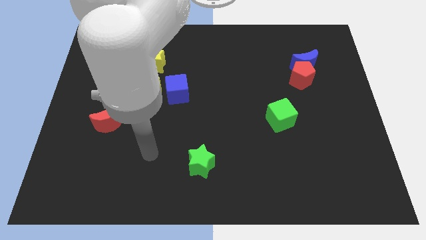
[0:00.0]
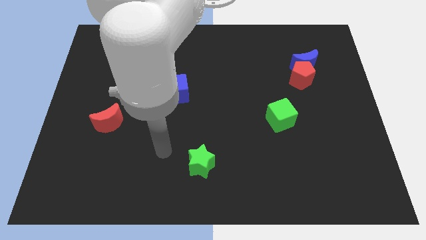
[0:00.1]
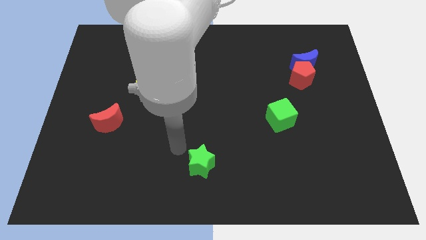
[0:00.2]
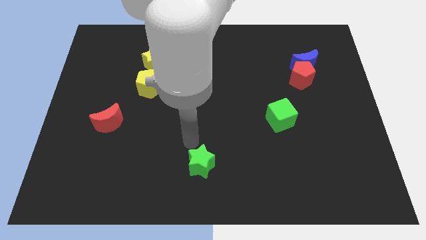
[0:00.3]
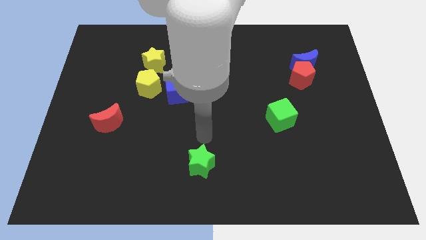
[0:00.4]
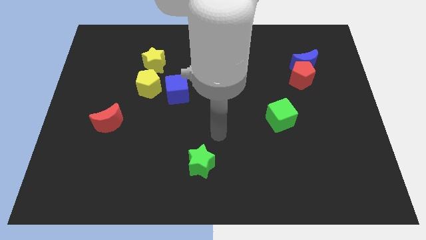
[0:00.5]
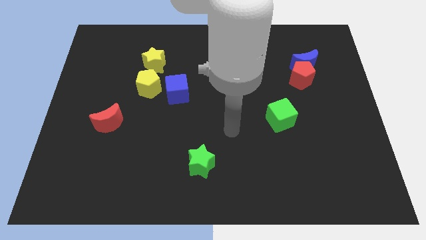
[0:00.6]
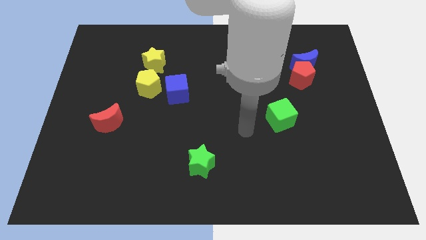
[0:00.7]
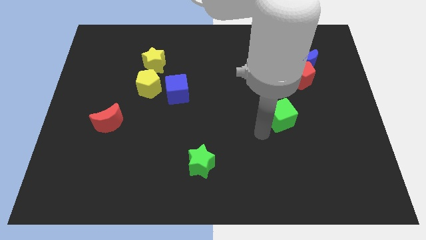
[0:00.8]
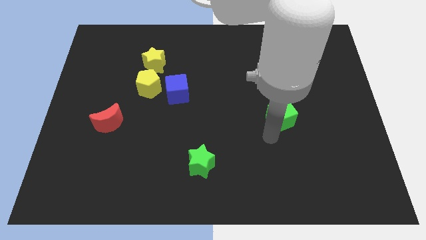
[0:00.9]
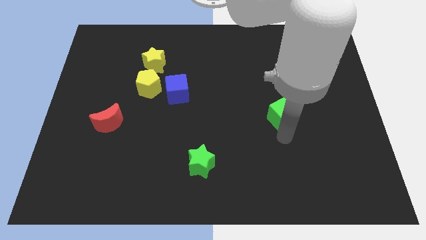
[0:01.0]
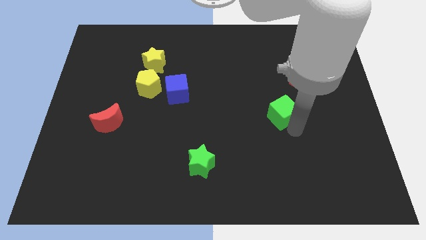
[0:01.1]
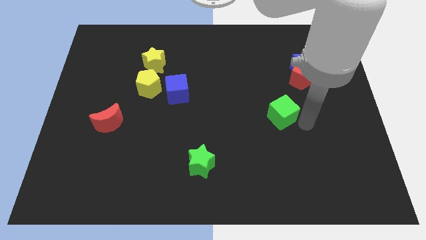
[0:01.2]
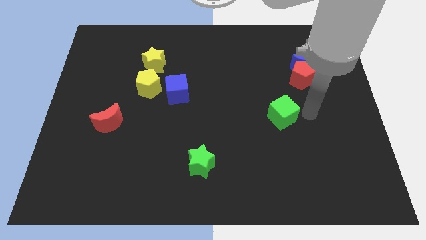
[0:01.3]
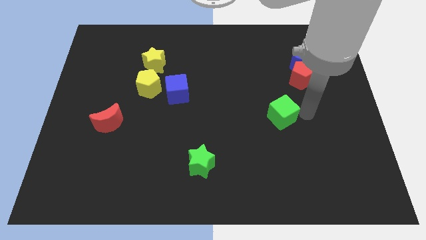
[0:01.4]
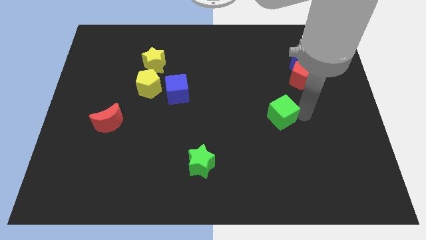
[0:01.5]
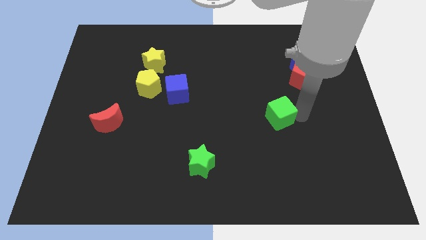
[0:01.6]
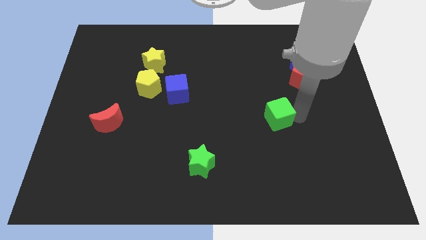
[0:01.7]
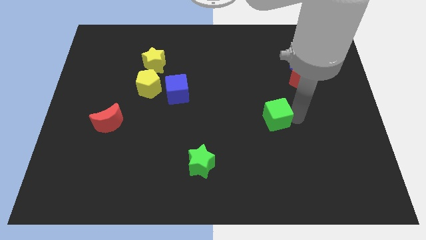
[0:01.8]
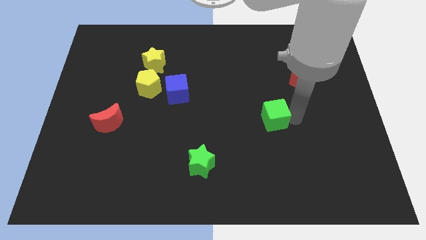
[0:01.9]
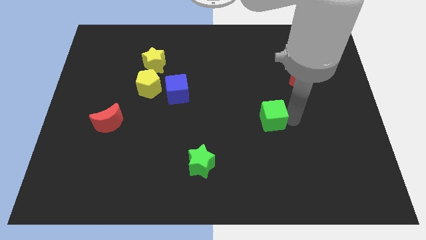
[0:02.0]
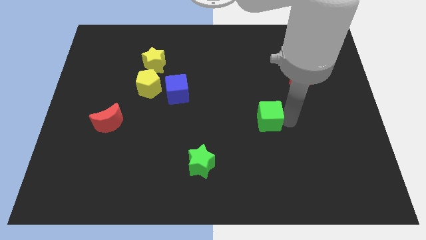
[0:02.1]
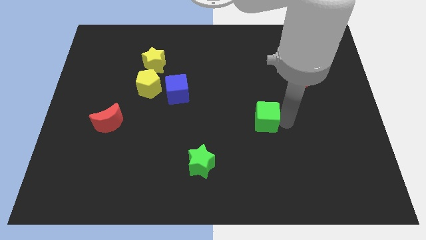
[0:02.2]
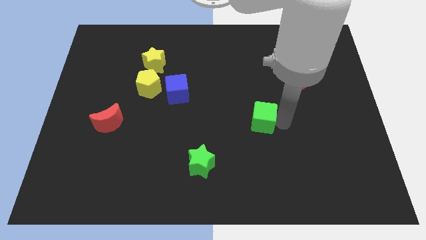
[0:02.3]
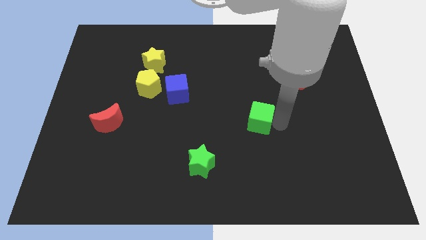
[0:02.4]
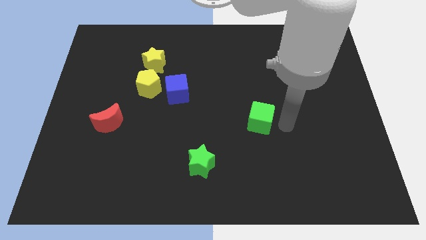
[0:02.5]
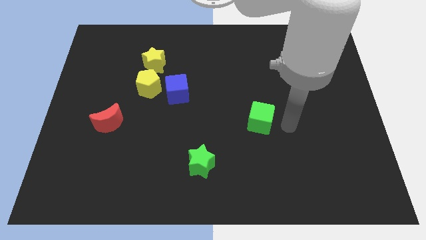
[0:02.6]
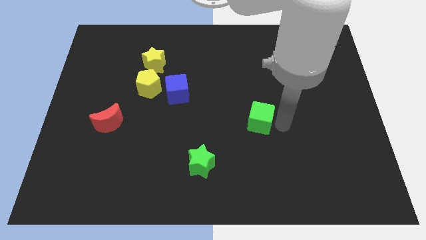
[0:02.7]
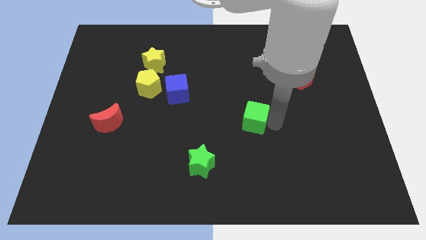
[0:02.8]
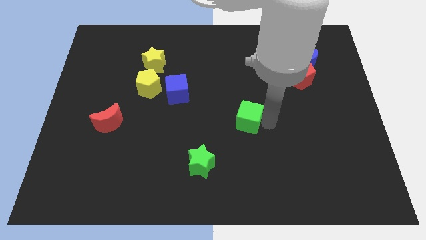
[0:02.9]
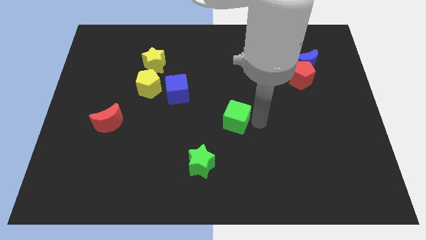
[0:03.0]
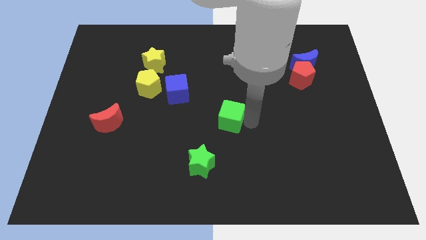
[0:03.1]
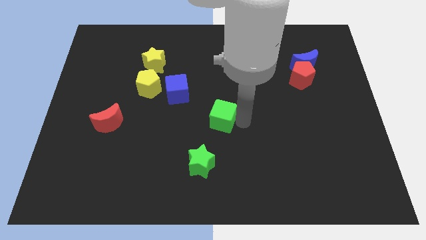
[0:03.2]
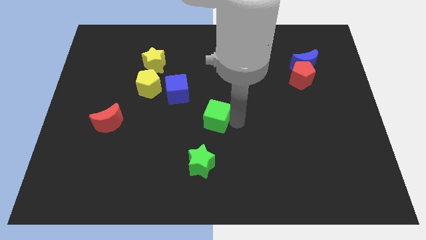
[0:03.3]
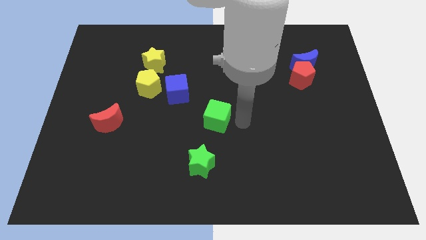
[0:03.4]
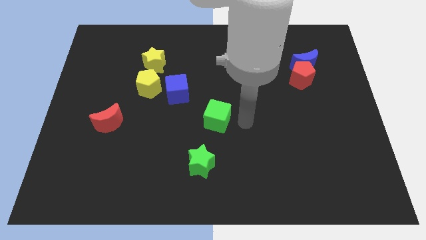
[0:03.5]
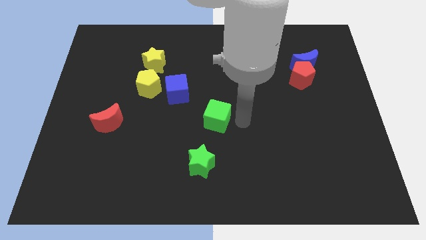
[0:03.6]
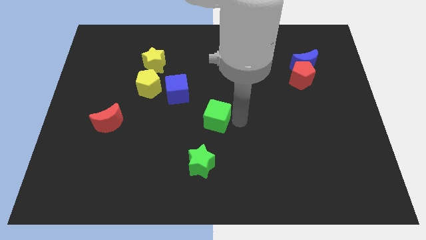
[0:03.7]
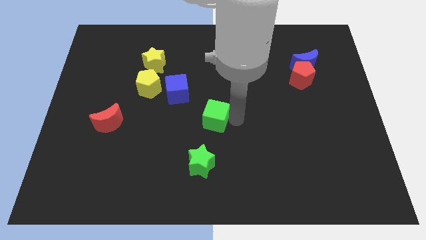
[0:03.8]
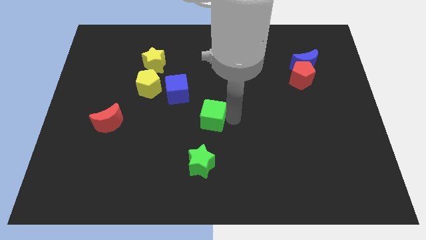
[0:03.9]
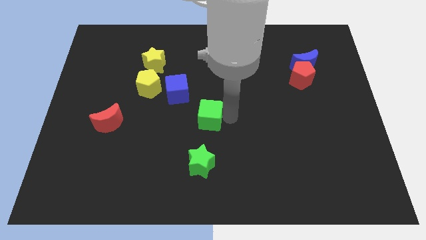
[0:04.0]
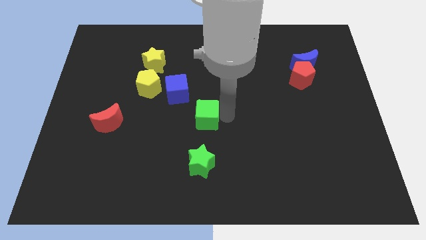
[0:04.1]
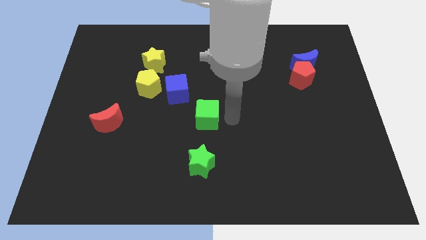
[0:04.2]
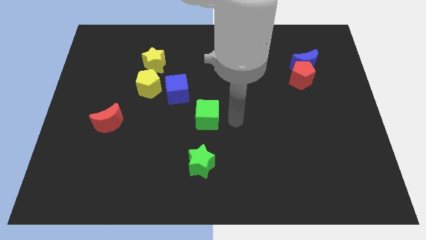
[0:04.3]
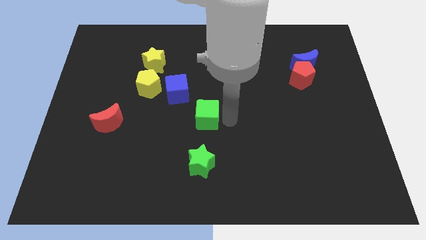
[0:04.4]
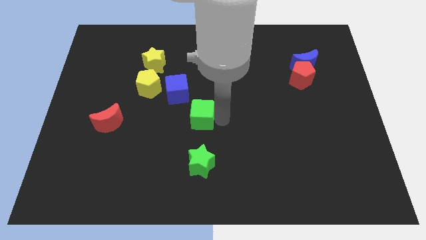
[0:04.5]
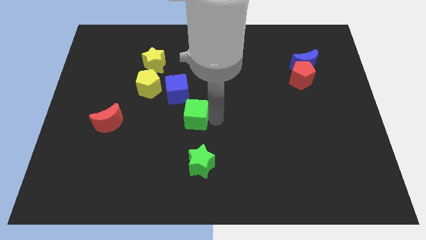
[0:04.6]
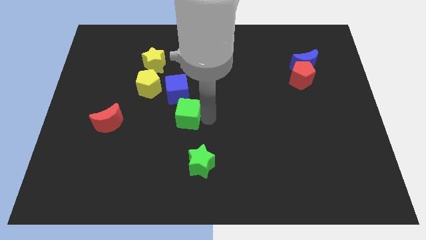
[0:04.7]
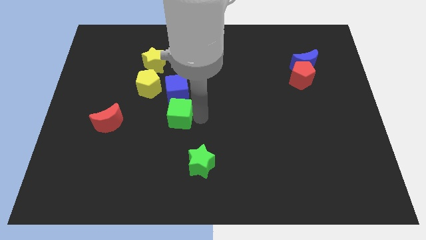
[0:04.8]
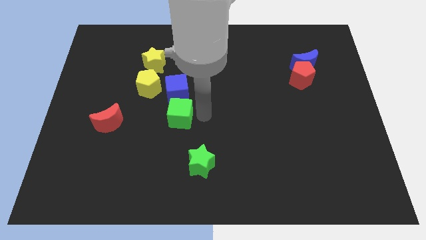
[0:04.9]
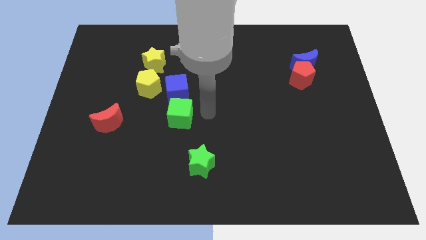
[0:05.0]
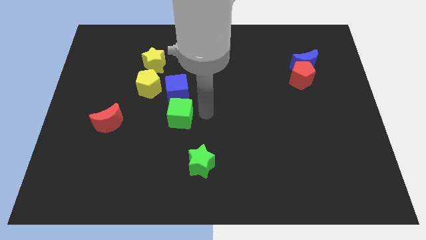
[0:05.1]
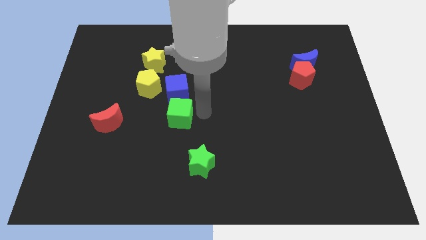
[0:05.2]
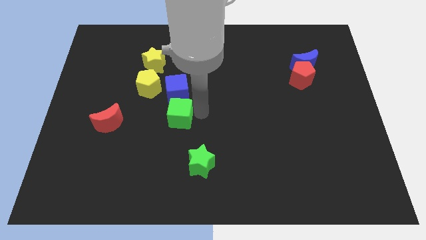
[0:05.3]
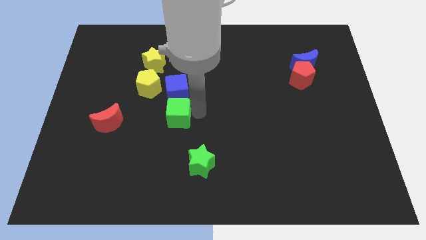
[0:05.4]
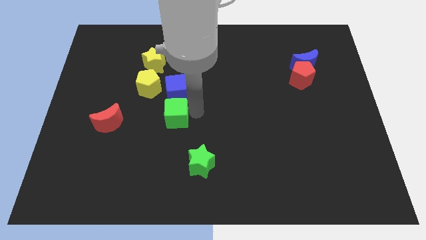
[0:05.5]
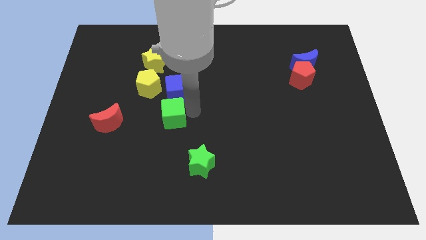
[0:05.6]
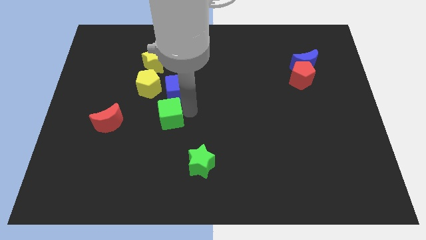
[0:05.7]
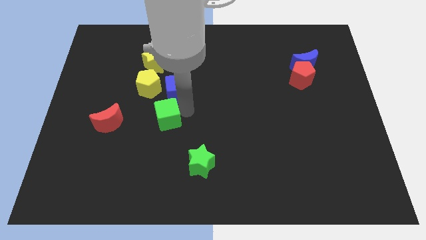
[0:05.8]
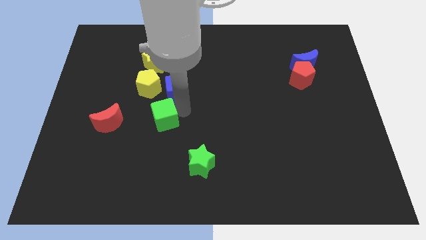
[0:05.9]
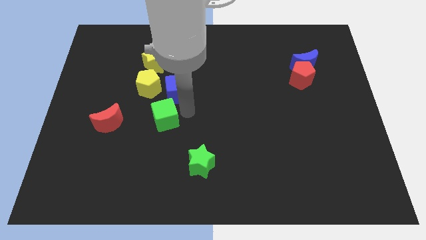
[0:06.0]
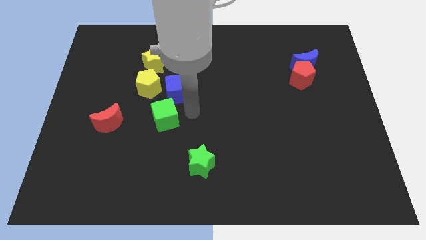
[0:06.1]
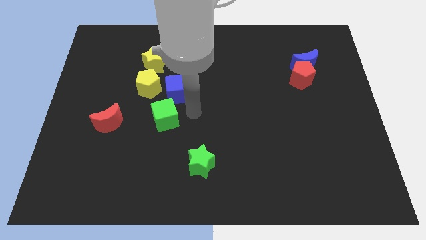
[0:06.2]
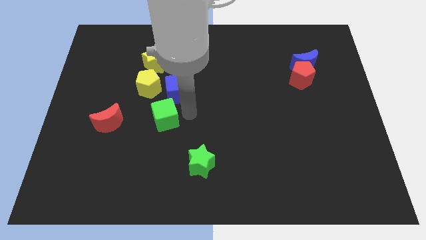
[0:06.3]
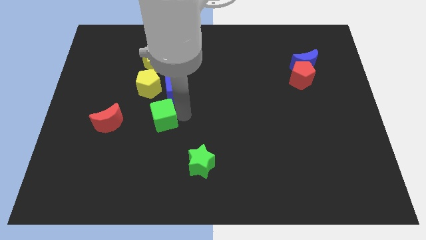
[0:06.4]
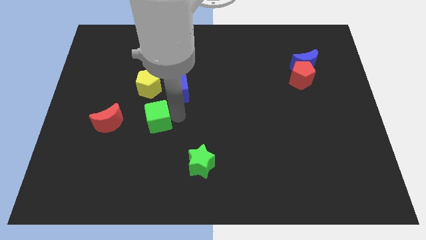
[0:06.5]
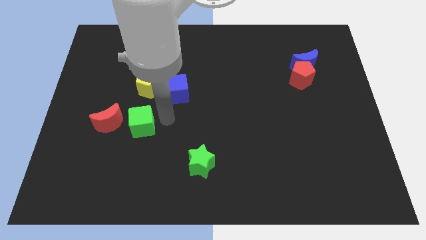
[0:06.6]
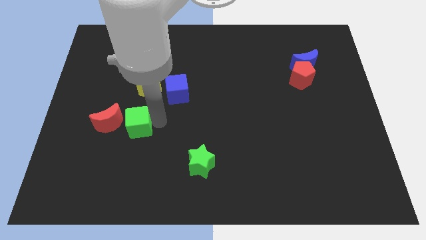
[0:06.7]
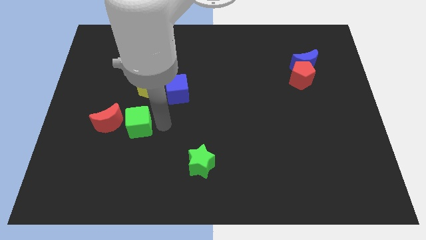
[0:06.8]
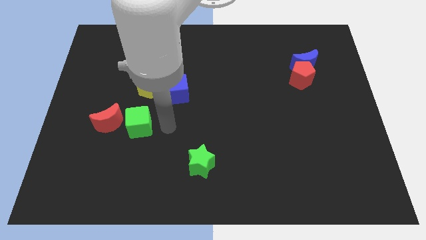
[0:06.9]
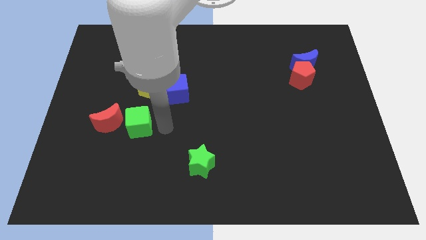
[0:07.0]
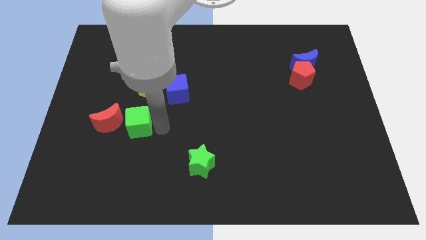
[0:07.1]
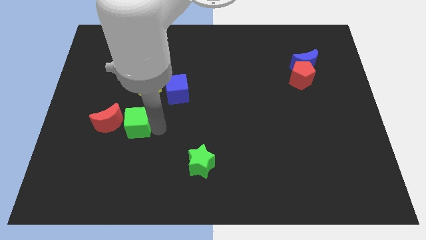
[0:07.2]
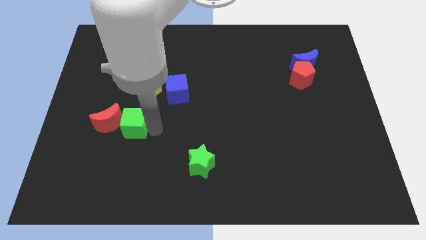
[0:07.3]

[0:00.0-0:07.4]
slide the green cube to the red moon
